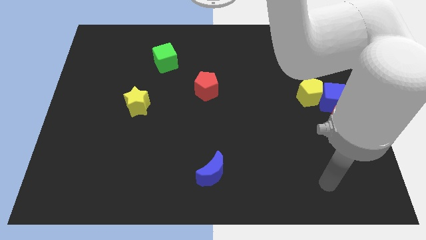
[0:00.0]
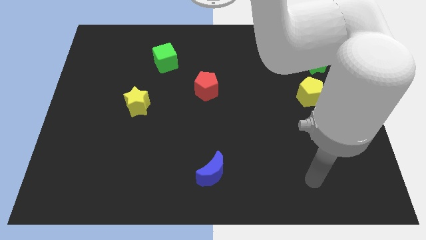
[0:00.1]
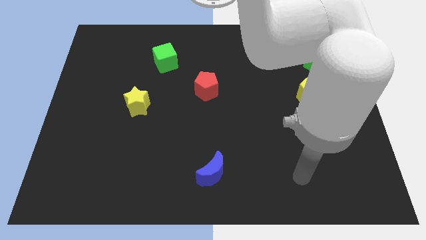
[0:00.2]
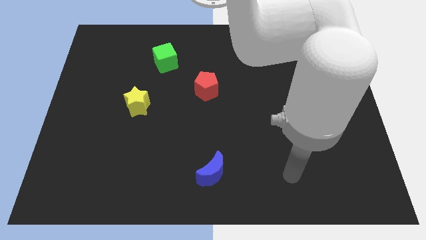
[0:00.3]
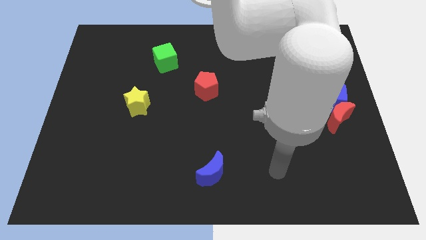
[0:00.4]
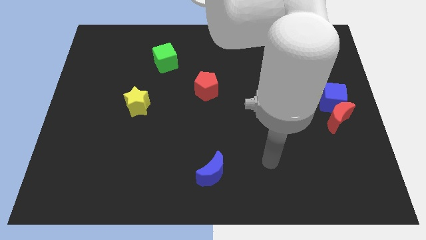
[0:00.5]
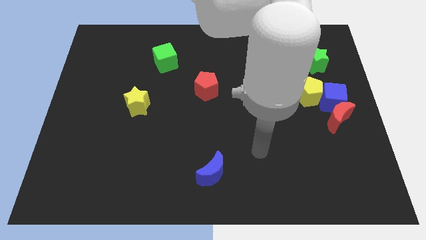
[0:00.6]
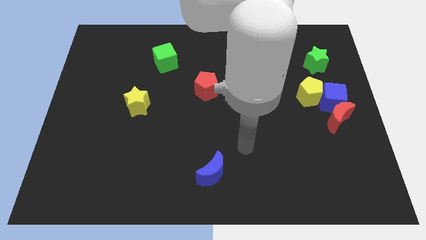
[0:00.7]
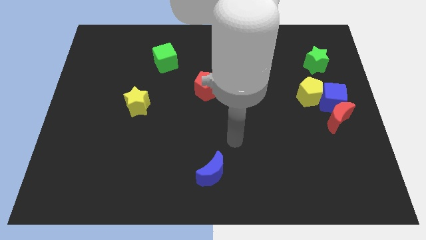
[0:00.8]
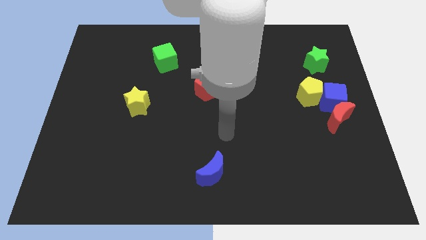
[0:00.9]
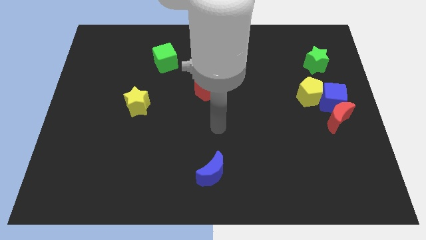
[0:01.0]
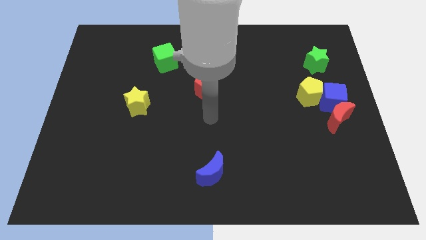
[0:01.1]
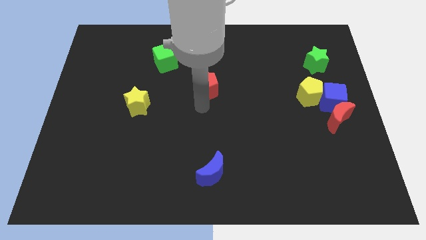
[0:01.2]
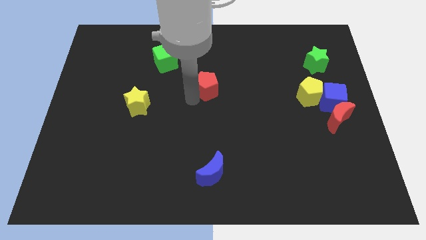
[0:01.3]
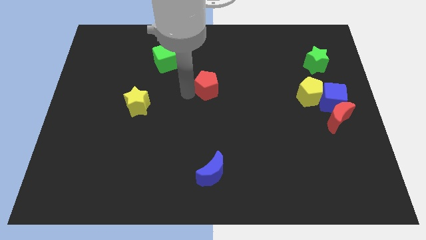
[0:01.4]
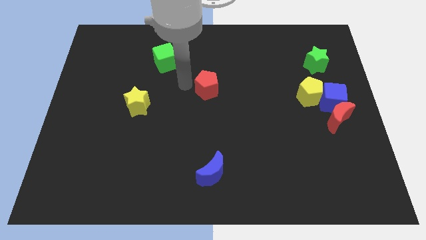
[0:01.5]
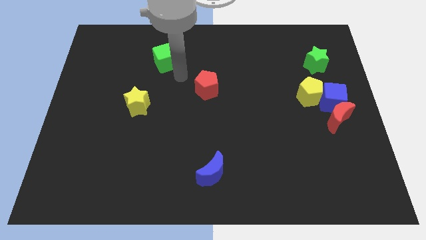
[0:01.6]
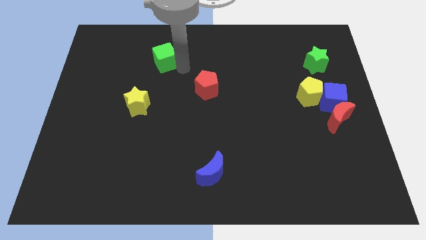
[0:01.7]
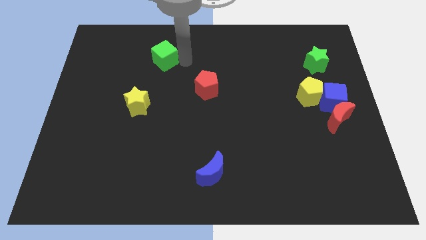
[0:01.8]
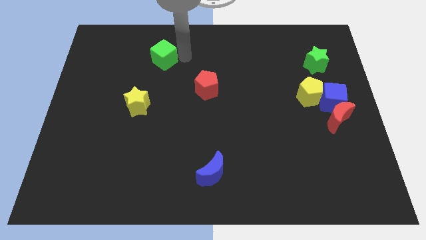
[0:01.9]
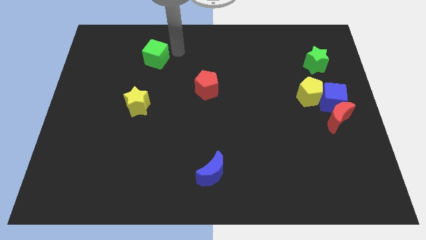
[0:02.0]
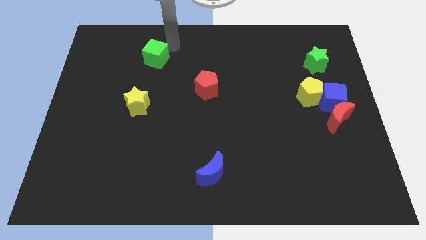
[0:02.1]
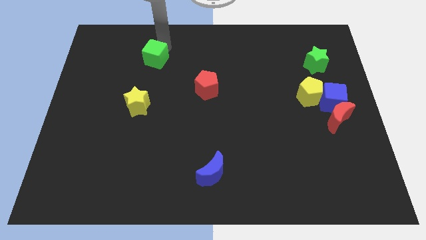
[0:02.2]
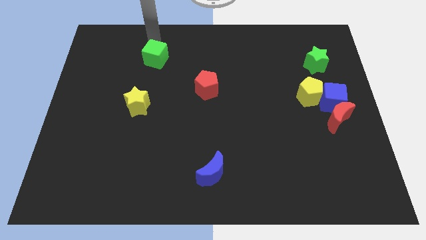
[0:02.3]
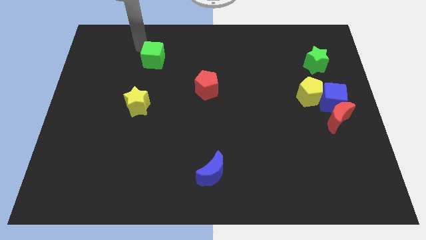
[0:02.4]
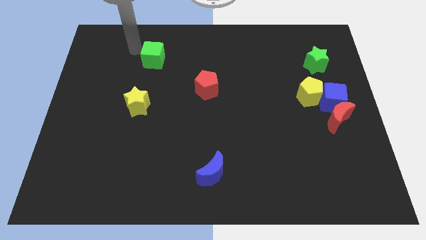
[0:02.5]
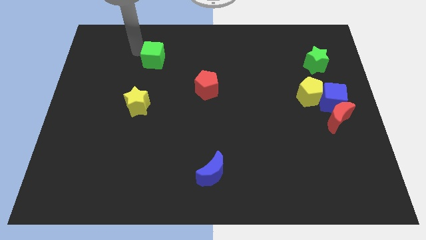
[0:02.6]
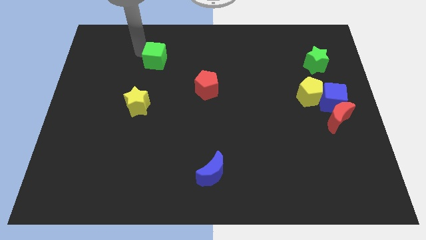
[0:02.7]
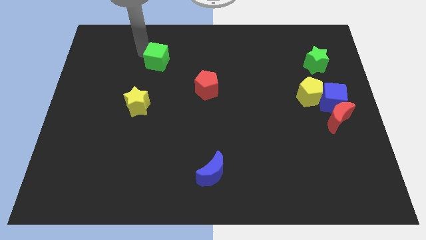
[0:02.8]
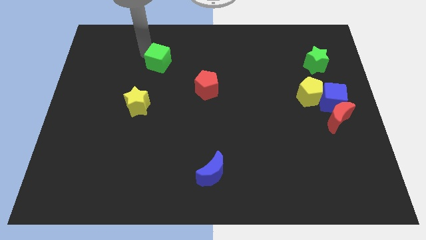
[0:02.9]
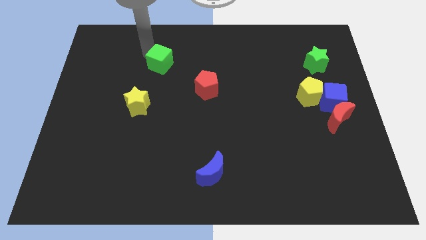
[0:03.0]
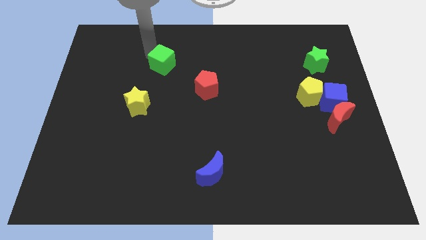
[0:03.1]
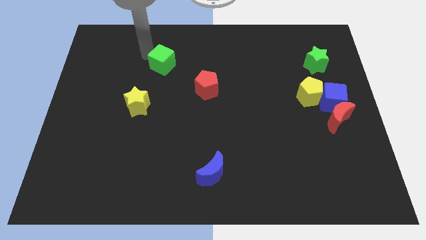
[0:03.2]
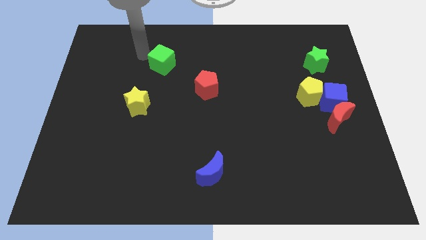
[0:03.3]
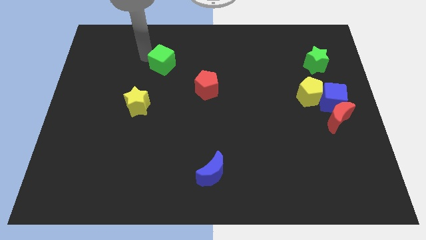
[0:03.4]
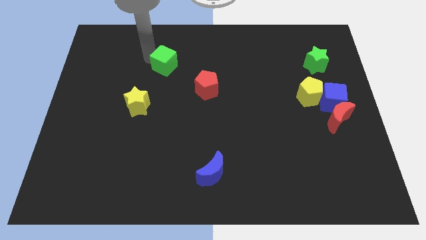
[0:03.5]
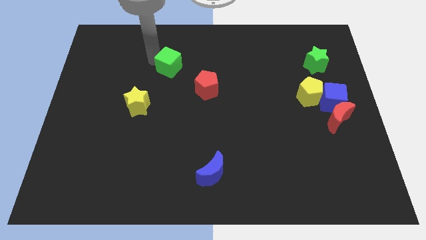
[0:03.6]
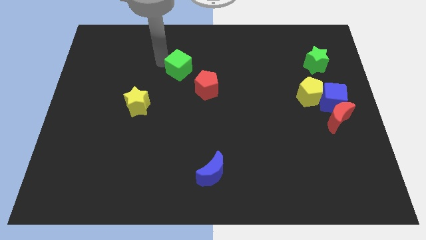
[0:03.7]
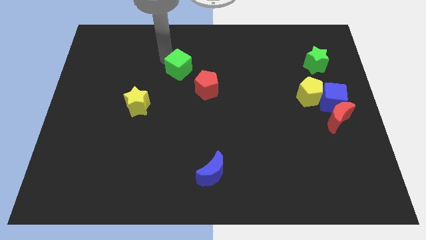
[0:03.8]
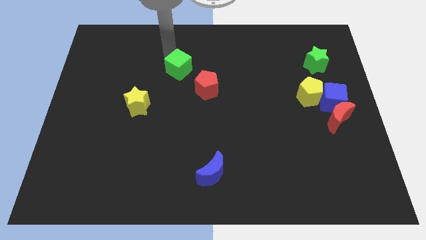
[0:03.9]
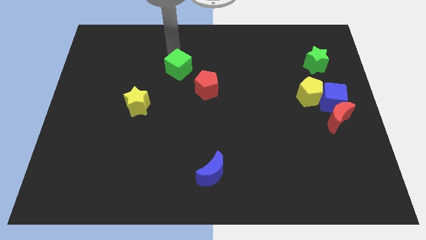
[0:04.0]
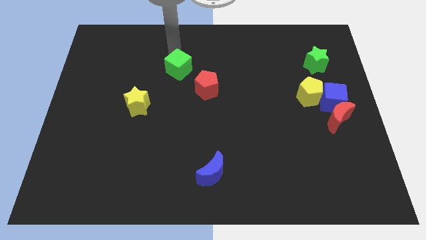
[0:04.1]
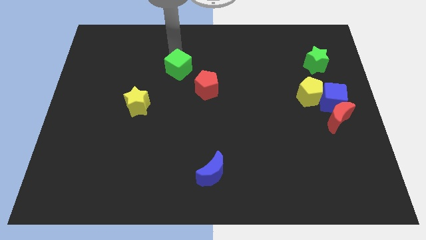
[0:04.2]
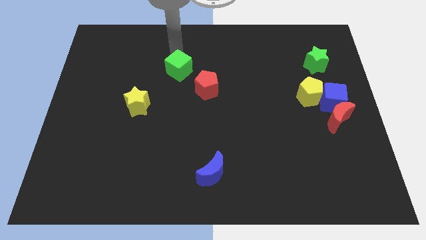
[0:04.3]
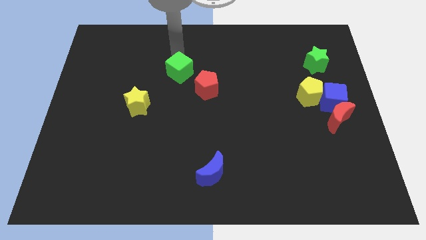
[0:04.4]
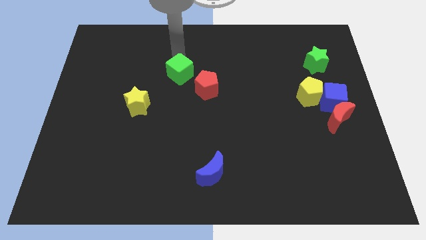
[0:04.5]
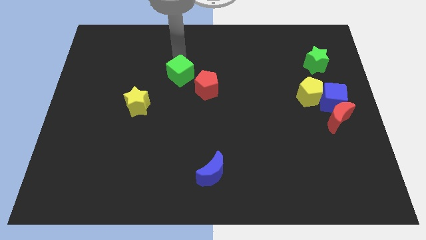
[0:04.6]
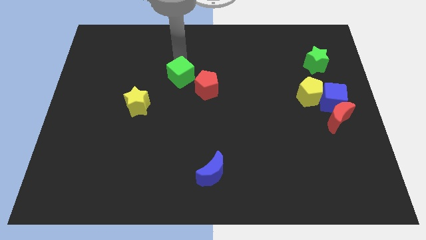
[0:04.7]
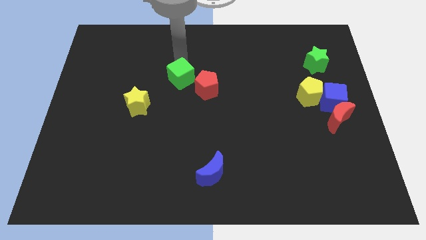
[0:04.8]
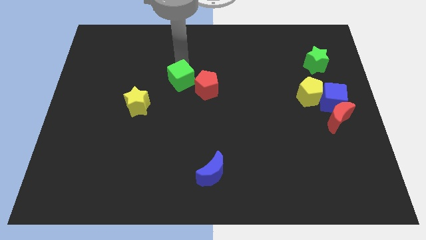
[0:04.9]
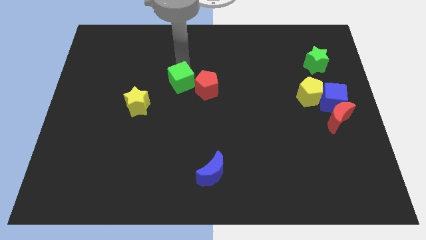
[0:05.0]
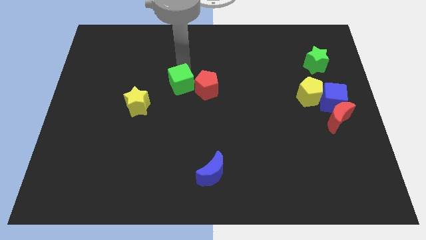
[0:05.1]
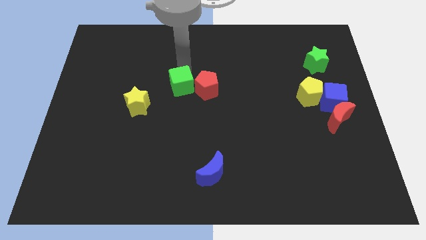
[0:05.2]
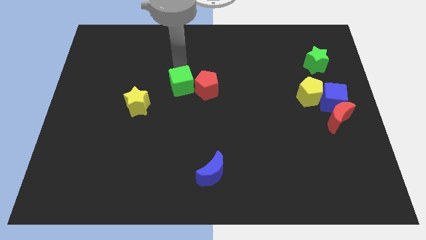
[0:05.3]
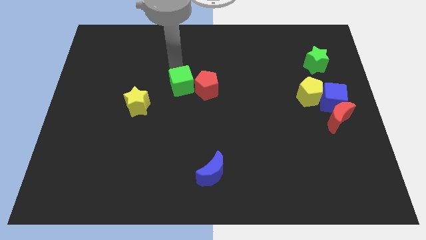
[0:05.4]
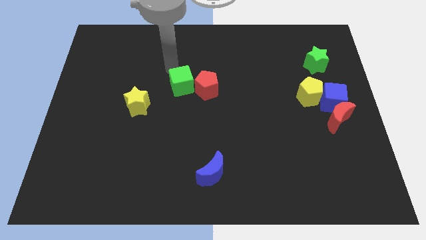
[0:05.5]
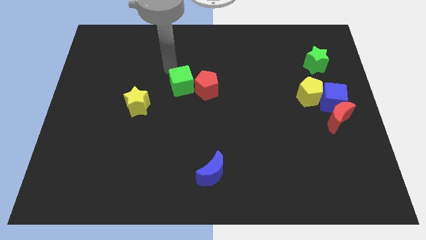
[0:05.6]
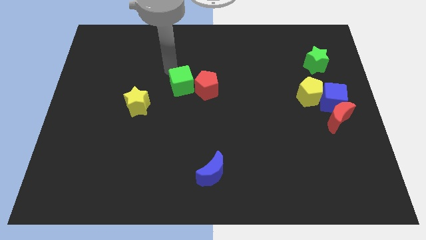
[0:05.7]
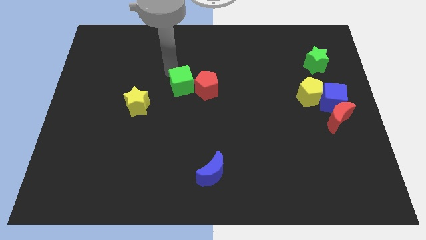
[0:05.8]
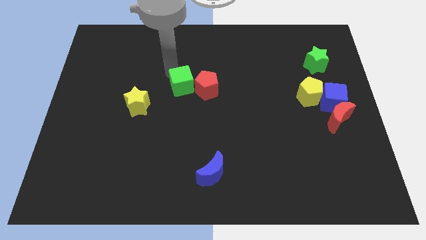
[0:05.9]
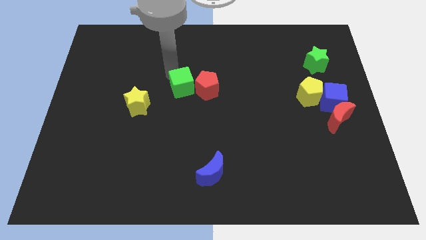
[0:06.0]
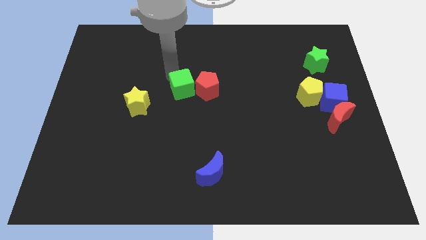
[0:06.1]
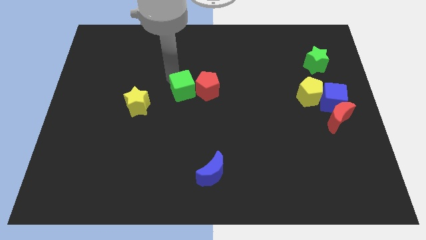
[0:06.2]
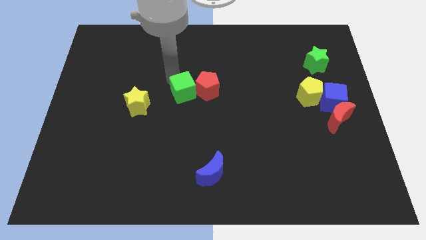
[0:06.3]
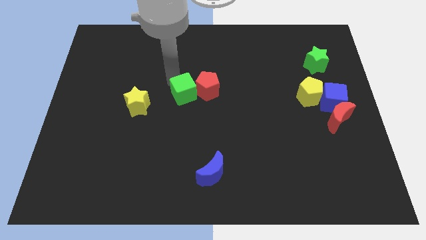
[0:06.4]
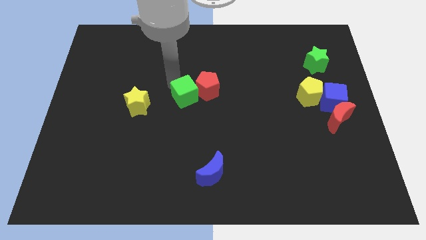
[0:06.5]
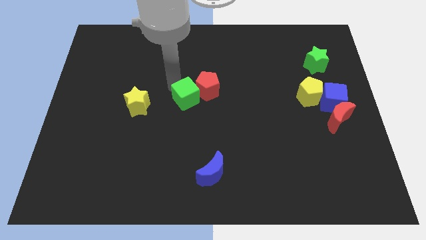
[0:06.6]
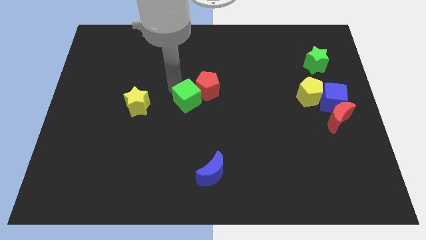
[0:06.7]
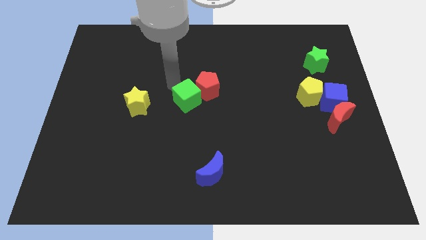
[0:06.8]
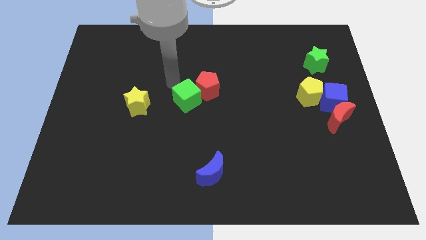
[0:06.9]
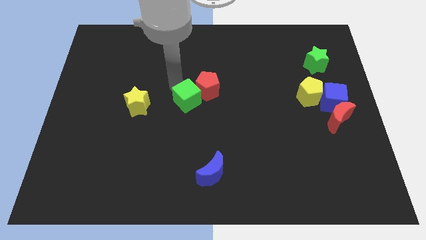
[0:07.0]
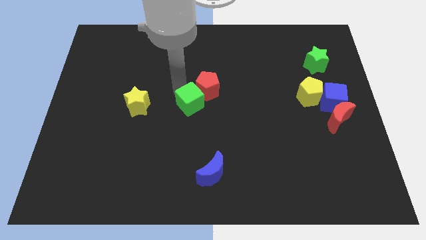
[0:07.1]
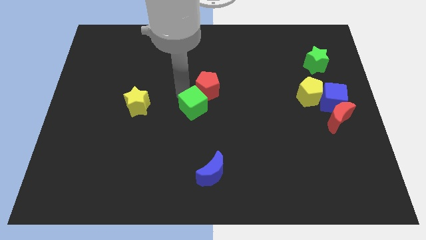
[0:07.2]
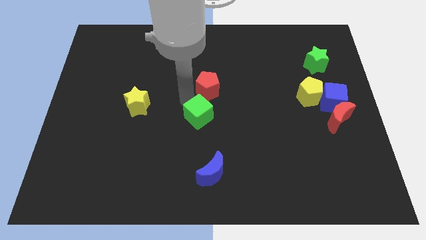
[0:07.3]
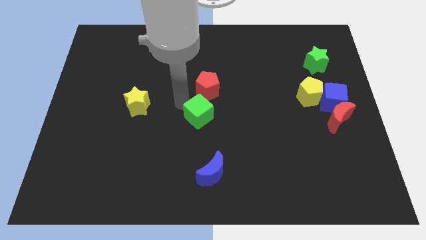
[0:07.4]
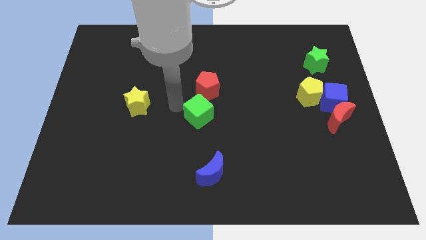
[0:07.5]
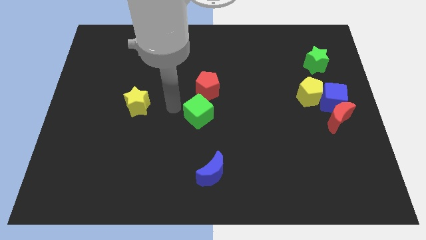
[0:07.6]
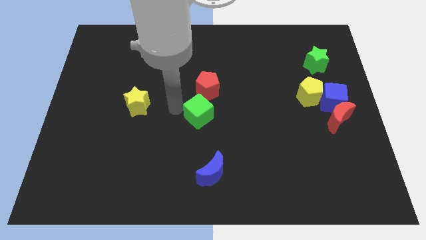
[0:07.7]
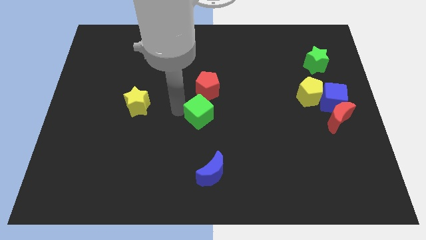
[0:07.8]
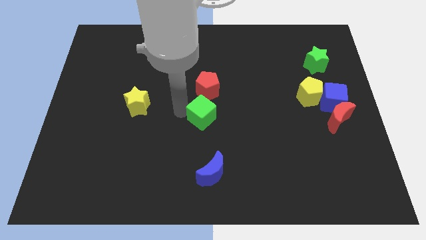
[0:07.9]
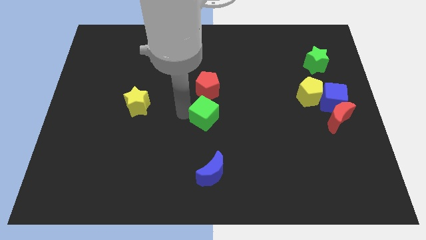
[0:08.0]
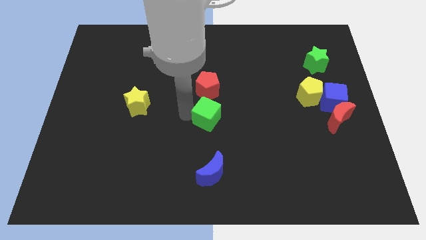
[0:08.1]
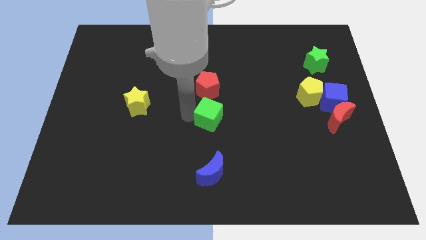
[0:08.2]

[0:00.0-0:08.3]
slide the green cube down and to the right
